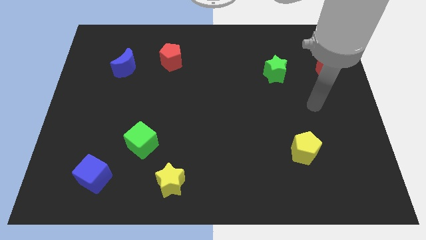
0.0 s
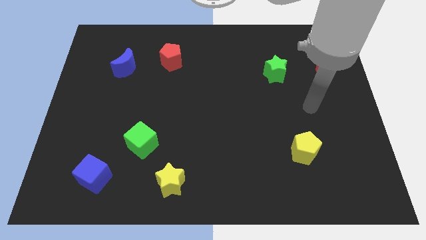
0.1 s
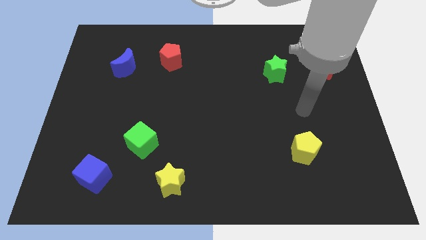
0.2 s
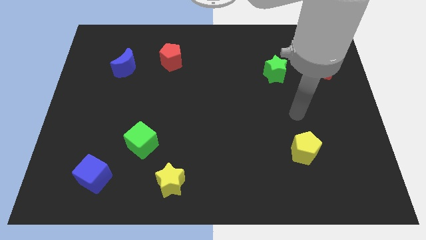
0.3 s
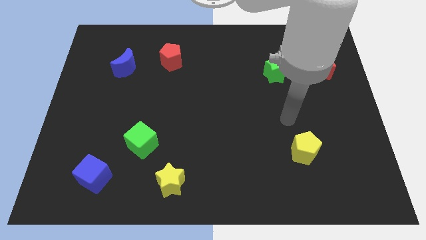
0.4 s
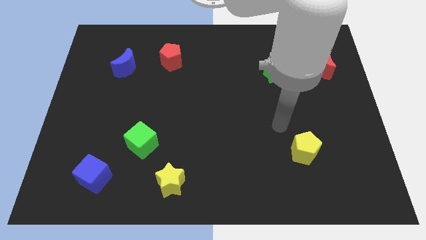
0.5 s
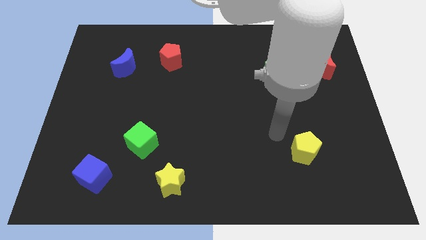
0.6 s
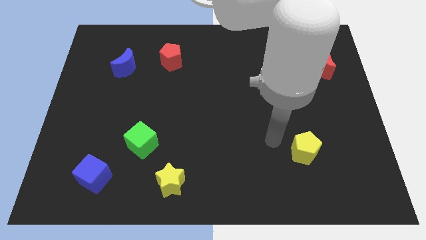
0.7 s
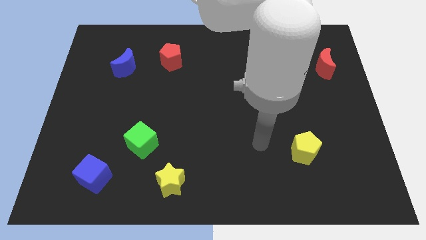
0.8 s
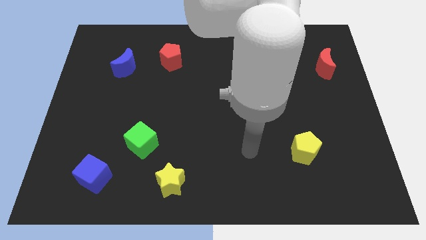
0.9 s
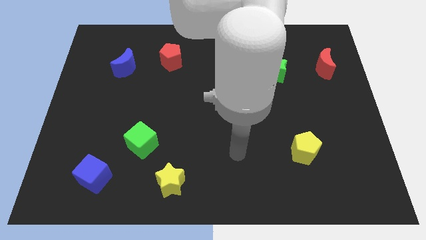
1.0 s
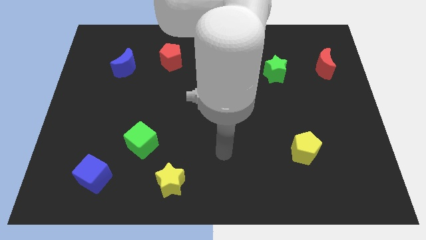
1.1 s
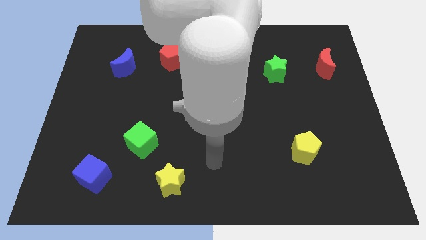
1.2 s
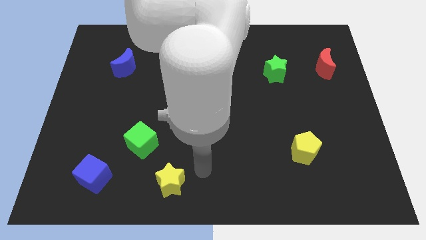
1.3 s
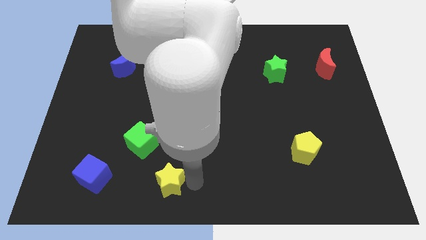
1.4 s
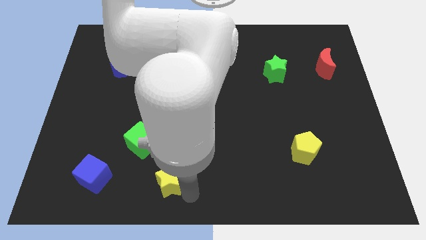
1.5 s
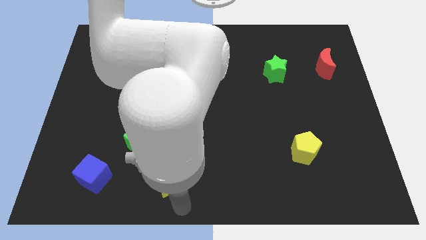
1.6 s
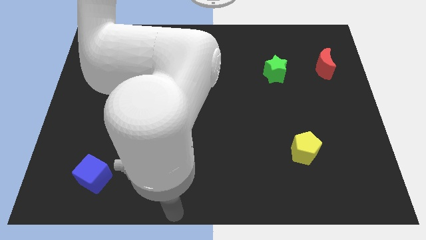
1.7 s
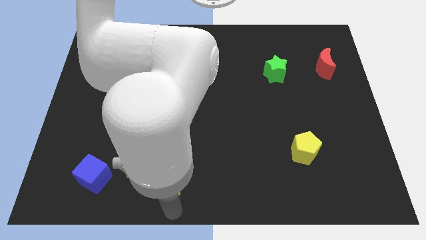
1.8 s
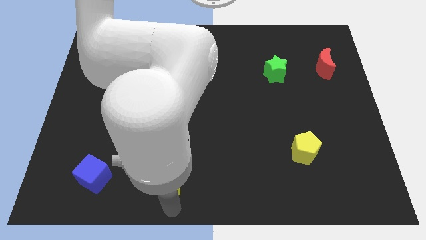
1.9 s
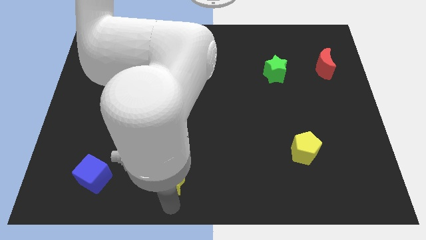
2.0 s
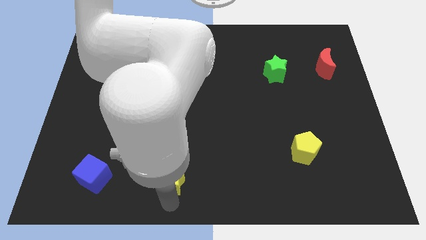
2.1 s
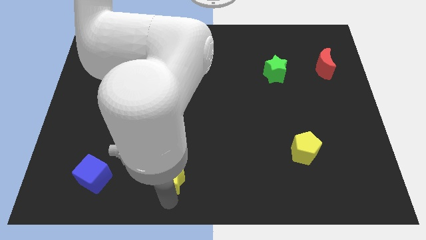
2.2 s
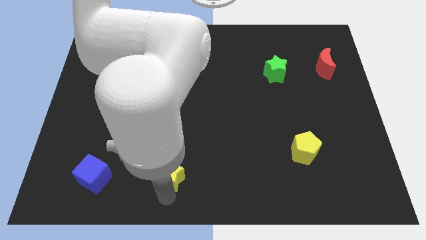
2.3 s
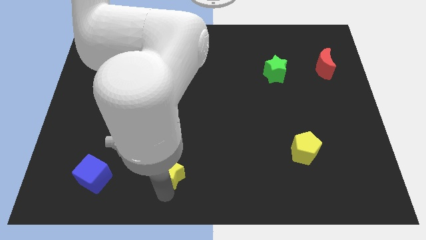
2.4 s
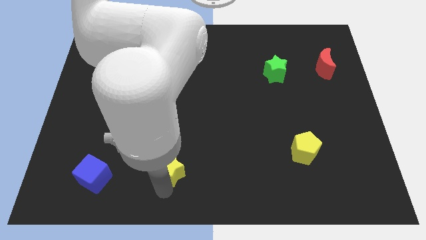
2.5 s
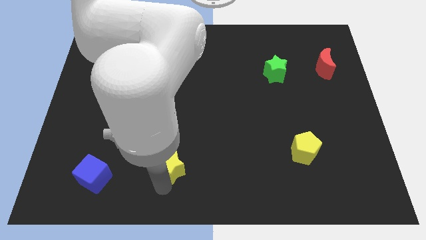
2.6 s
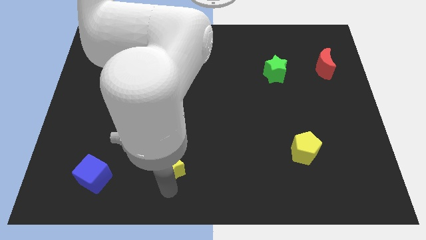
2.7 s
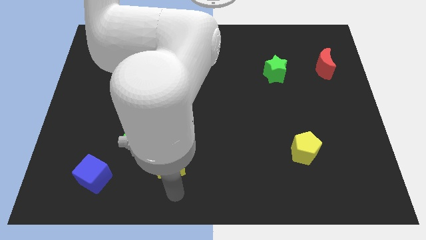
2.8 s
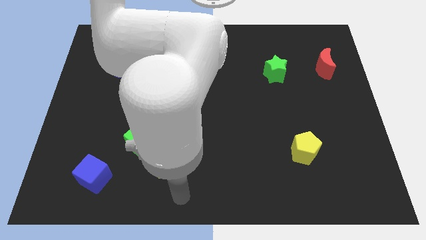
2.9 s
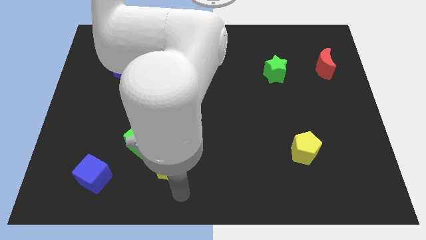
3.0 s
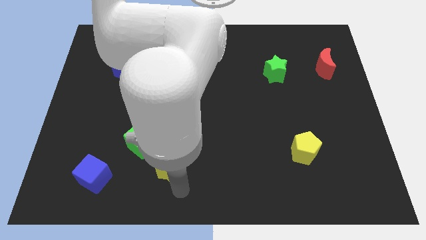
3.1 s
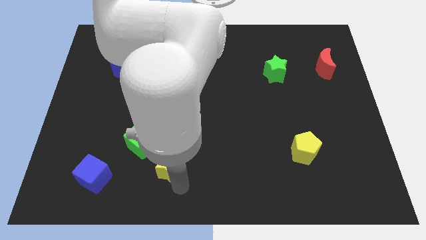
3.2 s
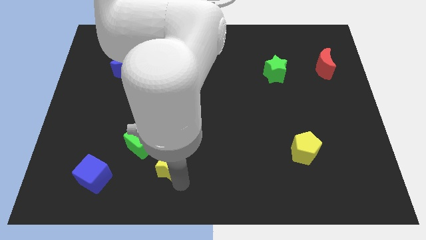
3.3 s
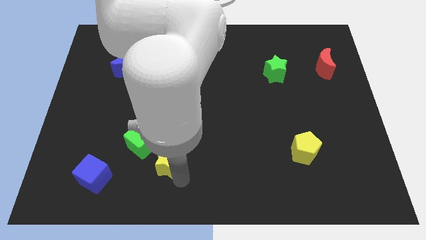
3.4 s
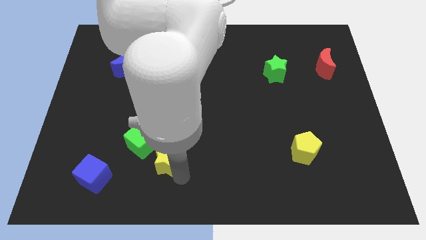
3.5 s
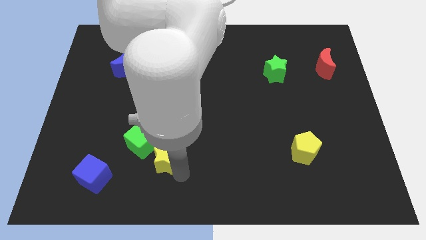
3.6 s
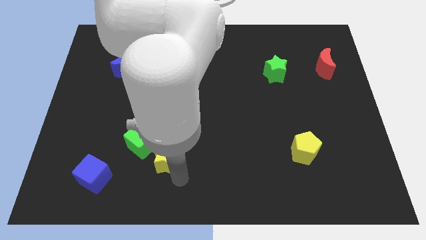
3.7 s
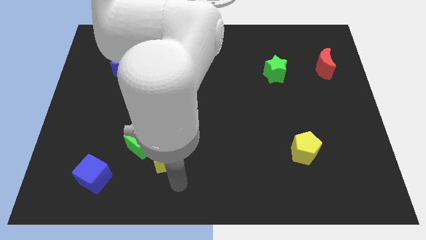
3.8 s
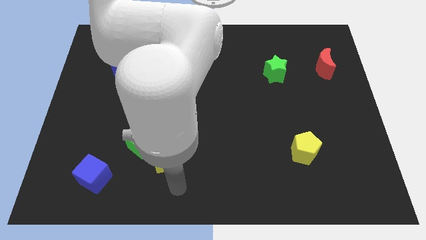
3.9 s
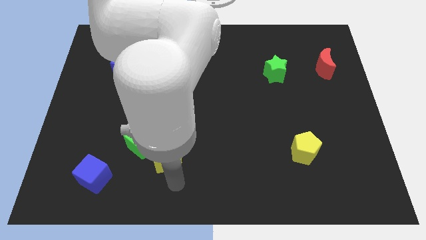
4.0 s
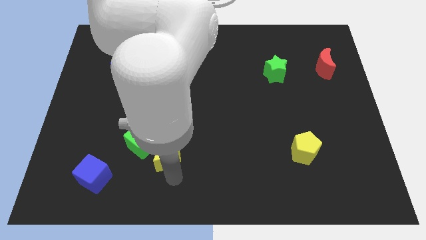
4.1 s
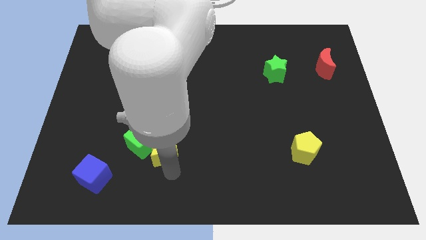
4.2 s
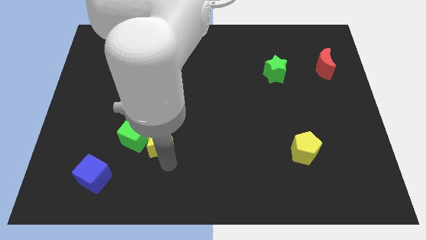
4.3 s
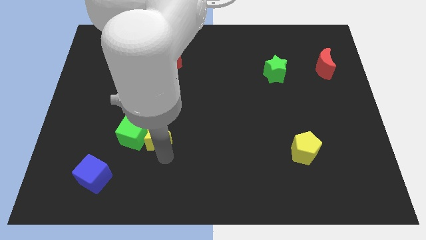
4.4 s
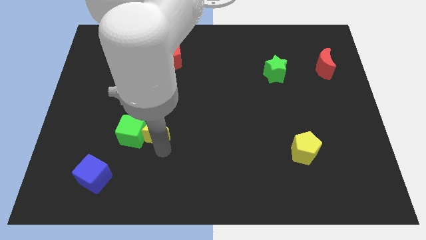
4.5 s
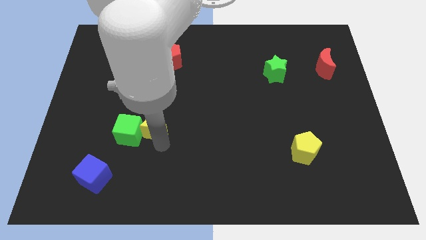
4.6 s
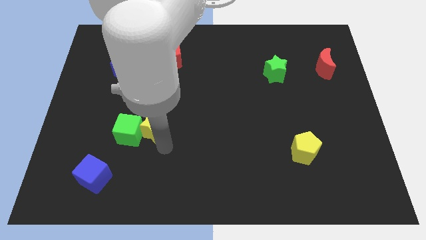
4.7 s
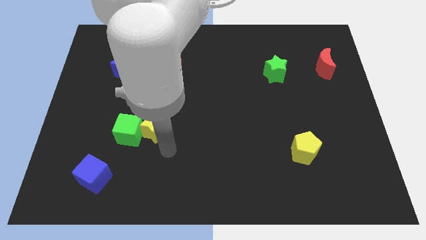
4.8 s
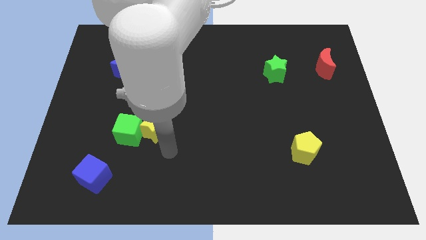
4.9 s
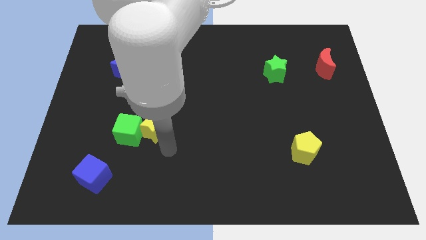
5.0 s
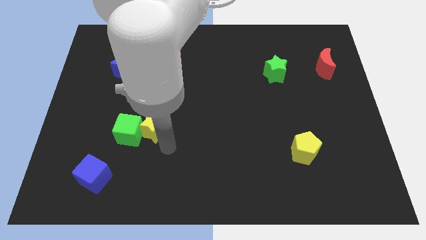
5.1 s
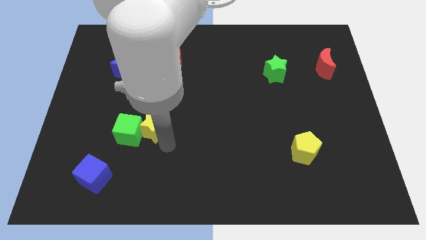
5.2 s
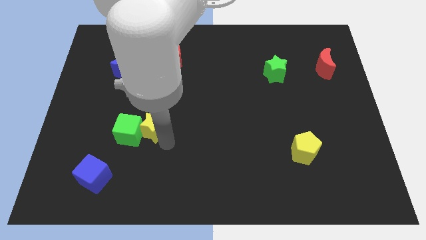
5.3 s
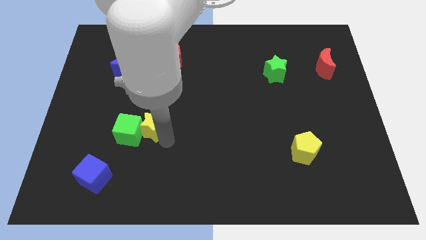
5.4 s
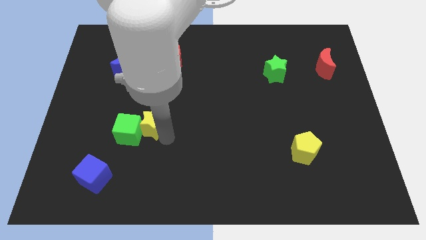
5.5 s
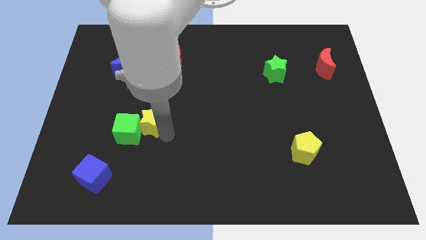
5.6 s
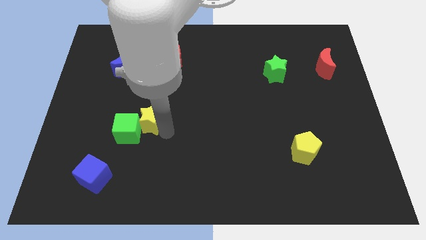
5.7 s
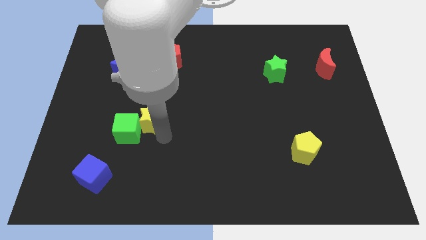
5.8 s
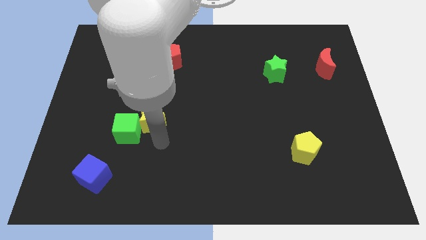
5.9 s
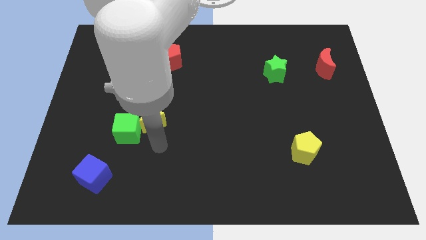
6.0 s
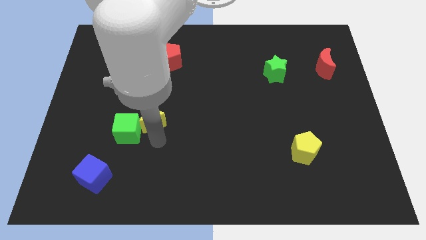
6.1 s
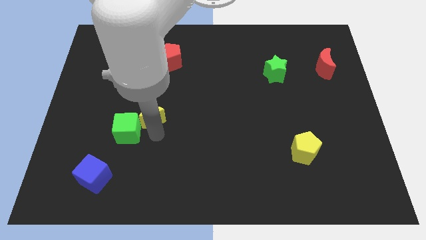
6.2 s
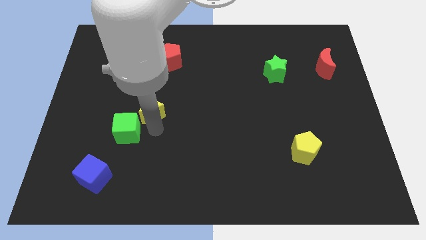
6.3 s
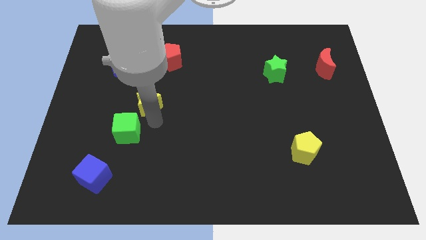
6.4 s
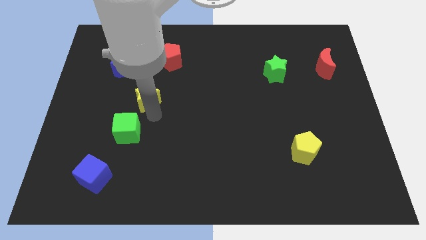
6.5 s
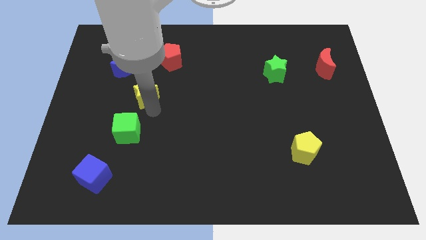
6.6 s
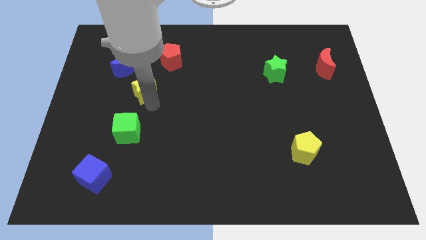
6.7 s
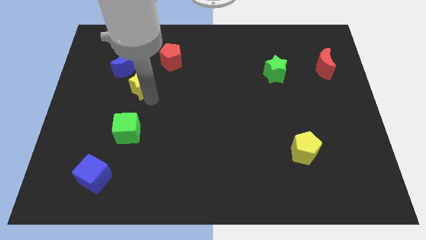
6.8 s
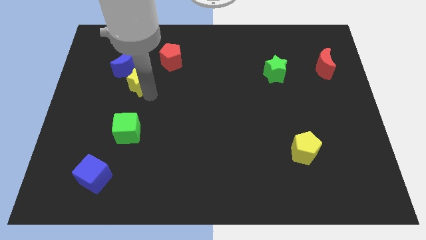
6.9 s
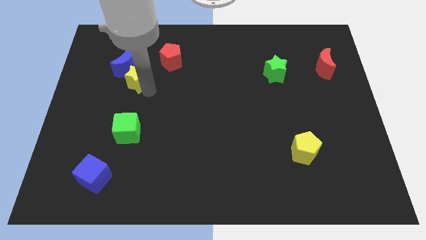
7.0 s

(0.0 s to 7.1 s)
put the yellow star next to the blue moon
